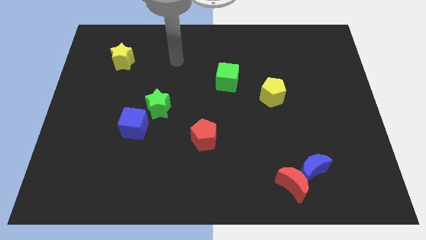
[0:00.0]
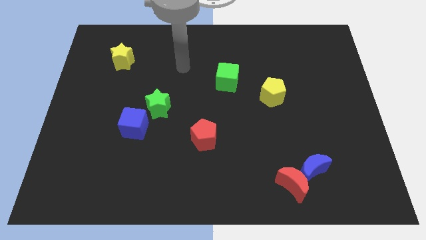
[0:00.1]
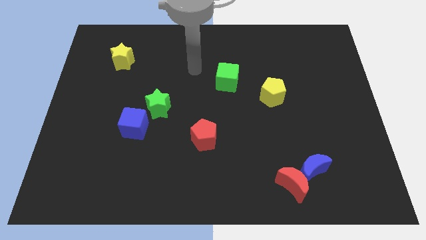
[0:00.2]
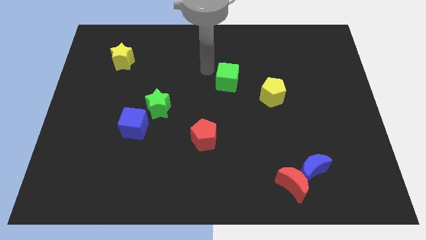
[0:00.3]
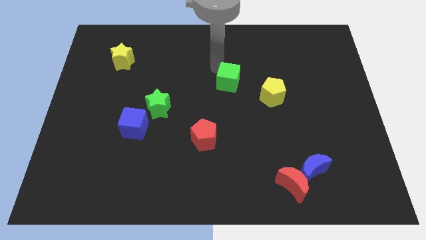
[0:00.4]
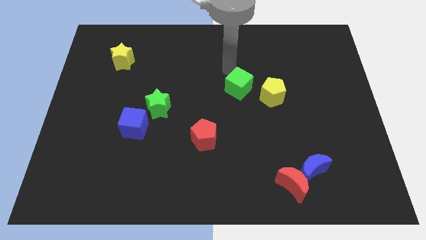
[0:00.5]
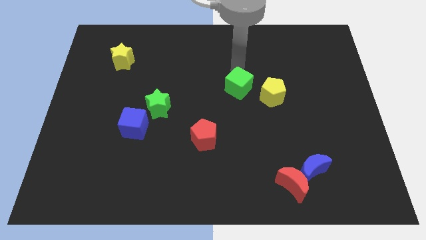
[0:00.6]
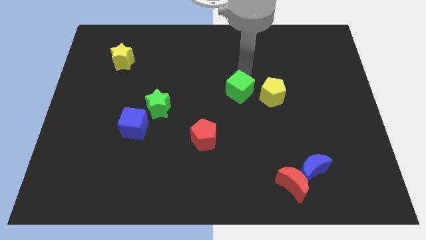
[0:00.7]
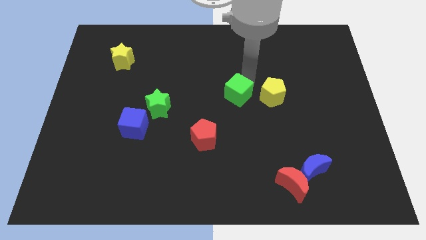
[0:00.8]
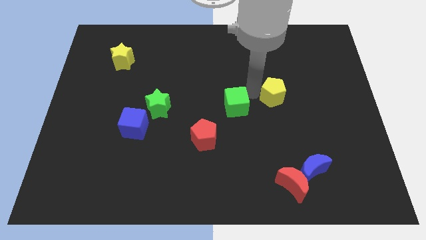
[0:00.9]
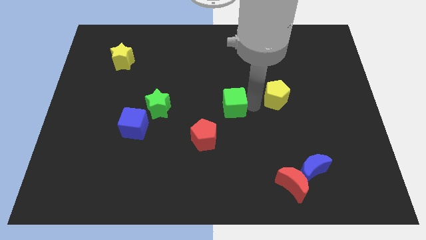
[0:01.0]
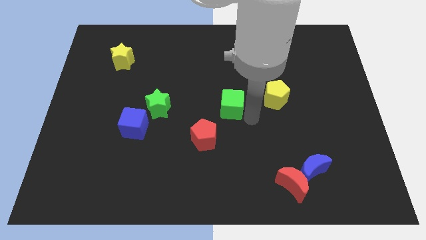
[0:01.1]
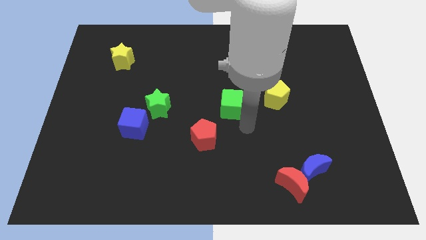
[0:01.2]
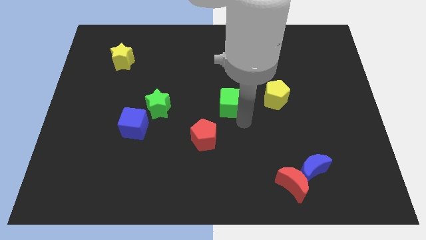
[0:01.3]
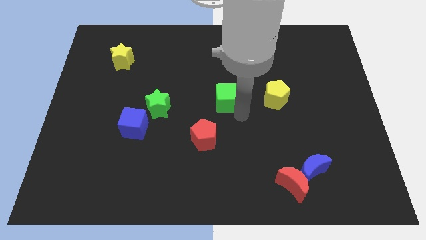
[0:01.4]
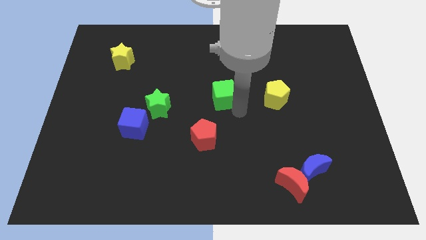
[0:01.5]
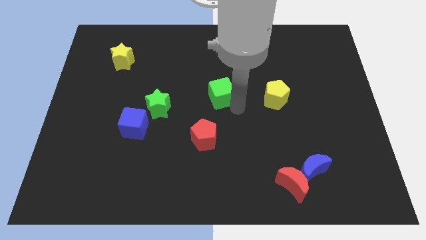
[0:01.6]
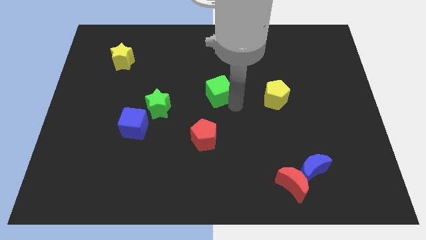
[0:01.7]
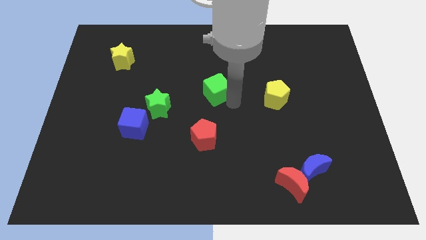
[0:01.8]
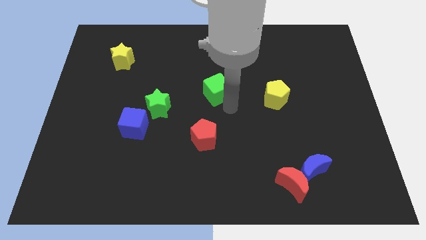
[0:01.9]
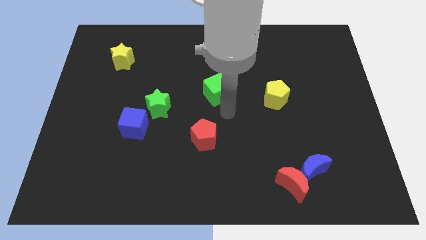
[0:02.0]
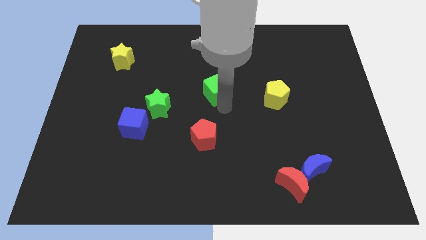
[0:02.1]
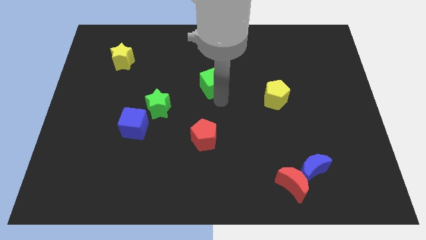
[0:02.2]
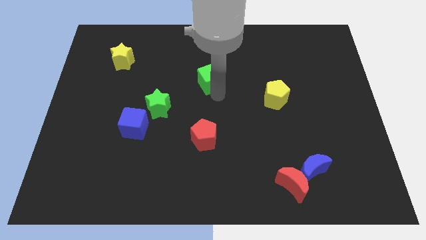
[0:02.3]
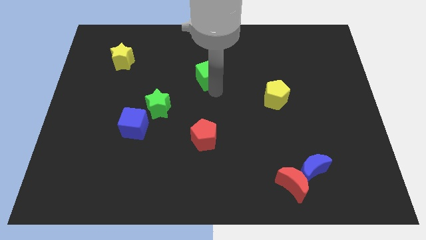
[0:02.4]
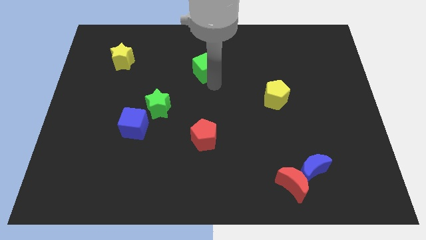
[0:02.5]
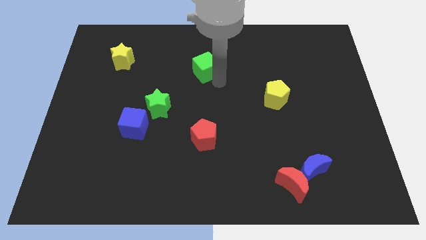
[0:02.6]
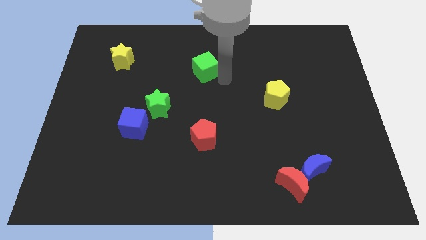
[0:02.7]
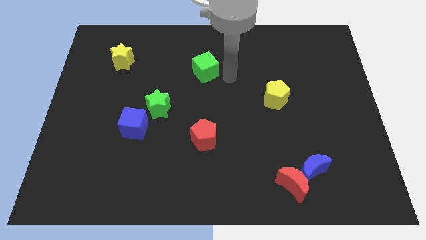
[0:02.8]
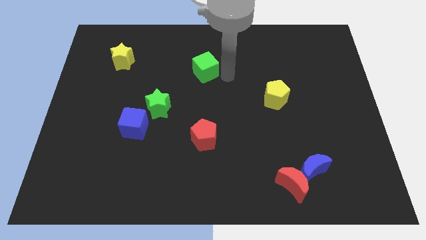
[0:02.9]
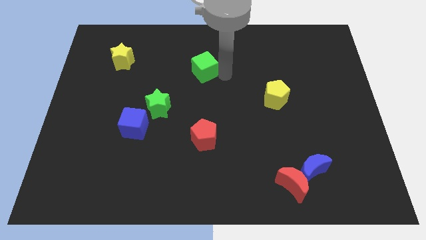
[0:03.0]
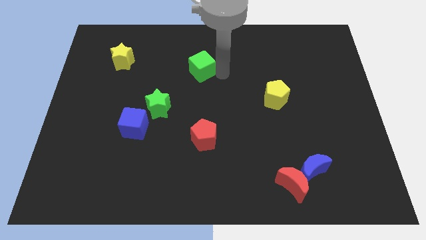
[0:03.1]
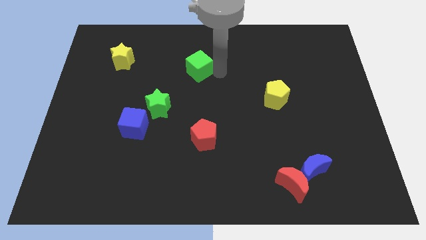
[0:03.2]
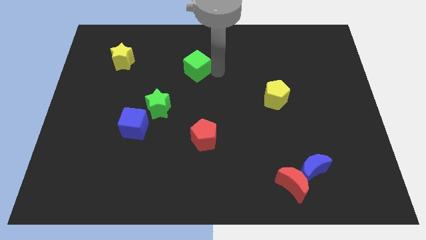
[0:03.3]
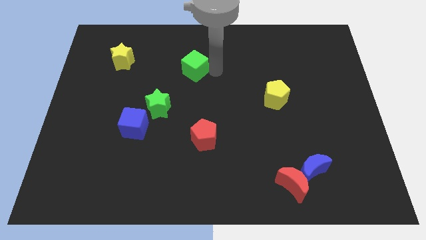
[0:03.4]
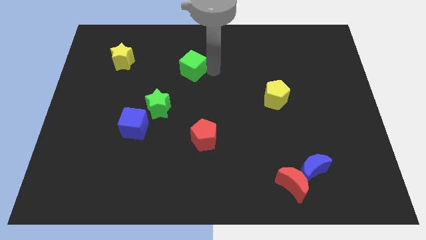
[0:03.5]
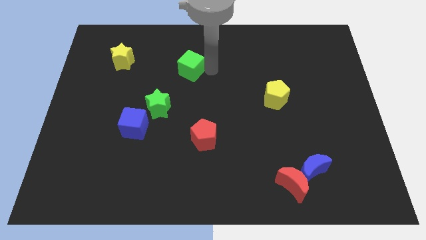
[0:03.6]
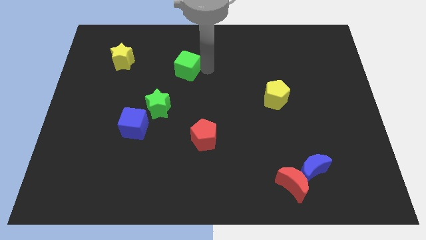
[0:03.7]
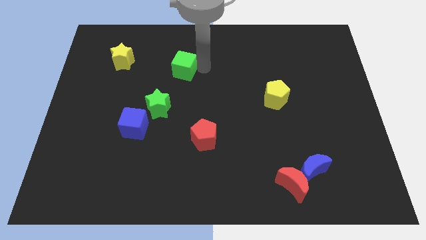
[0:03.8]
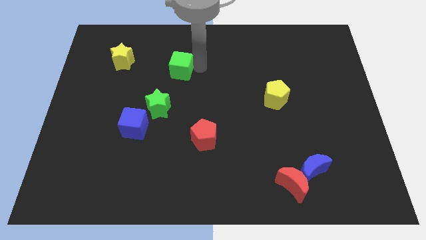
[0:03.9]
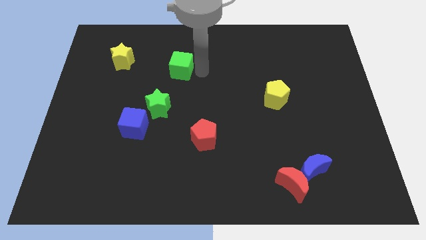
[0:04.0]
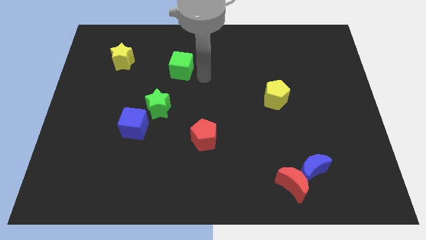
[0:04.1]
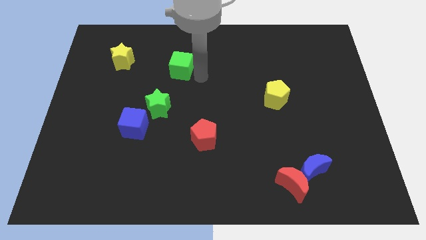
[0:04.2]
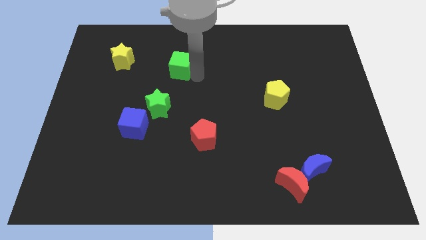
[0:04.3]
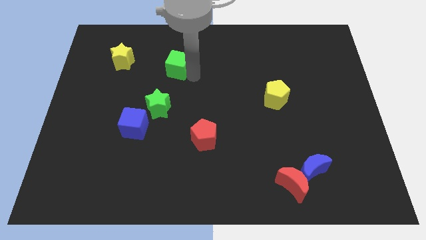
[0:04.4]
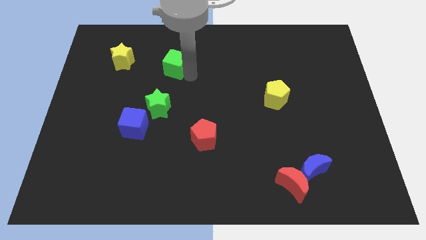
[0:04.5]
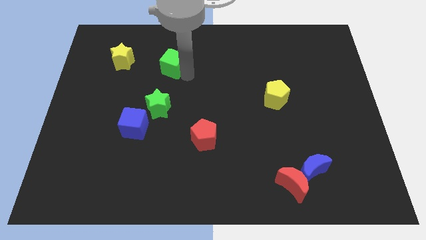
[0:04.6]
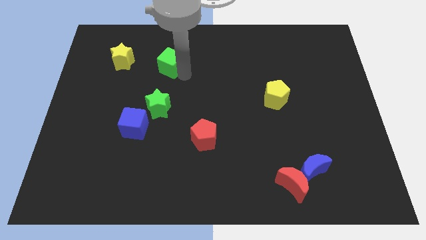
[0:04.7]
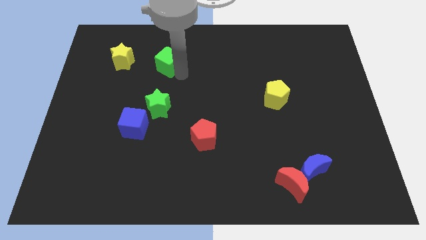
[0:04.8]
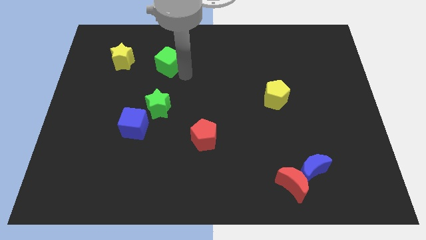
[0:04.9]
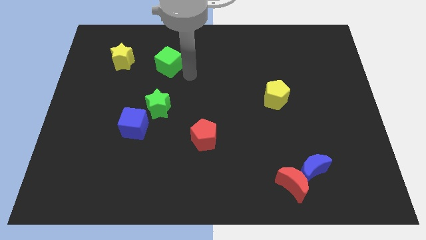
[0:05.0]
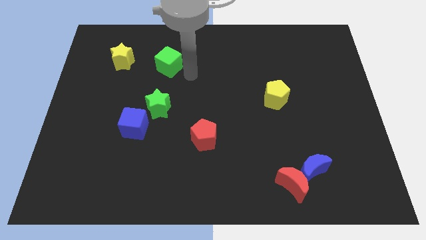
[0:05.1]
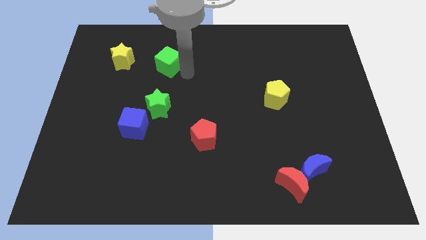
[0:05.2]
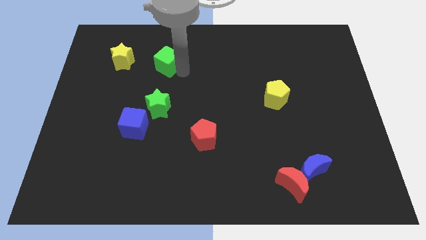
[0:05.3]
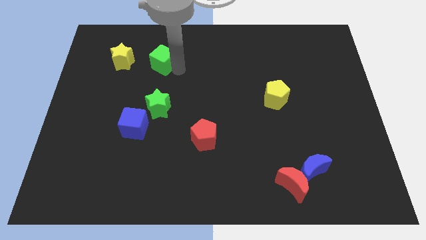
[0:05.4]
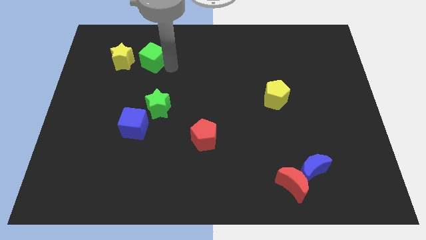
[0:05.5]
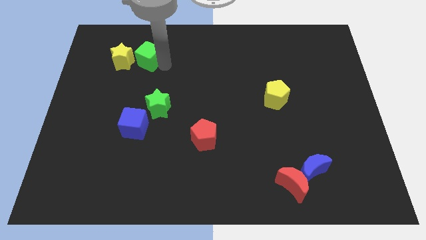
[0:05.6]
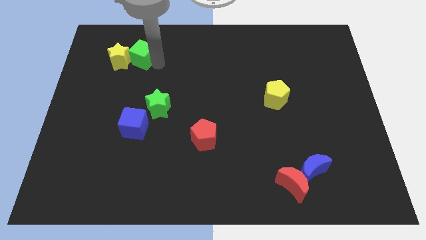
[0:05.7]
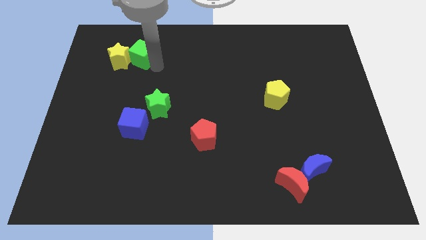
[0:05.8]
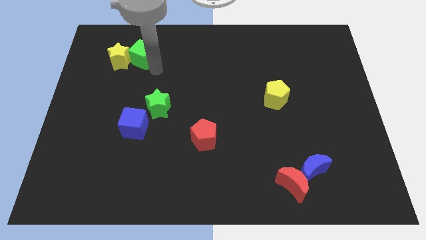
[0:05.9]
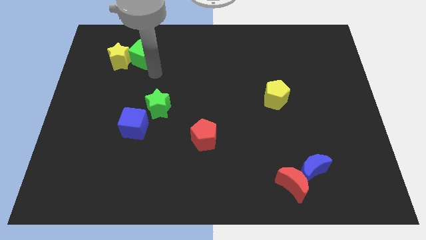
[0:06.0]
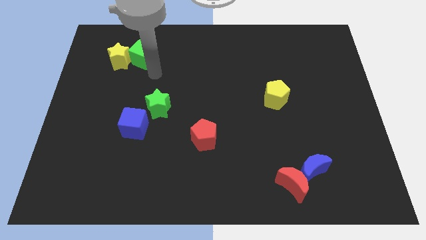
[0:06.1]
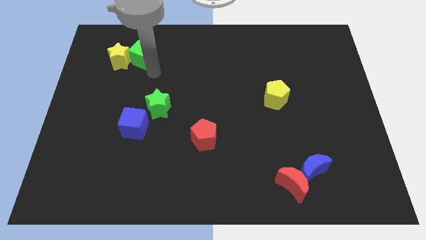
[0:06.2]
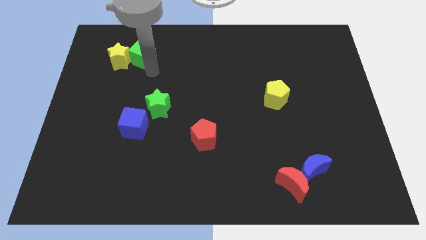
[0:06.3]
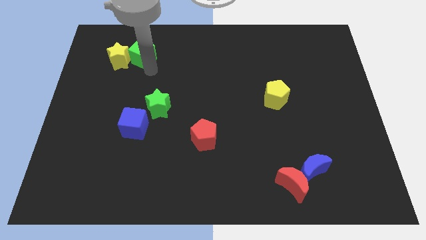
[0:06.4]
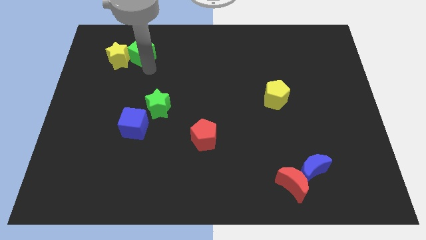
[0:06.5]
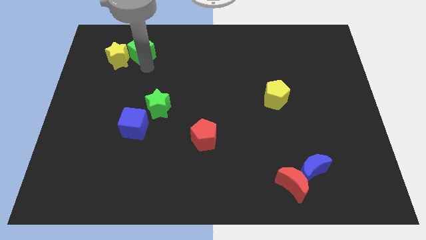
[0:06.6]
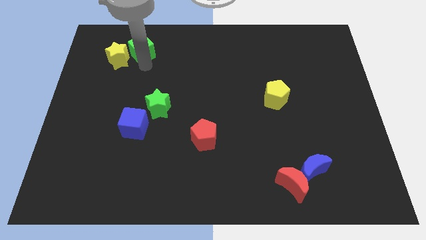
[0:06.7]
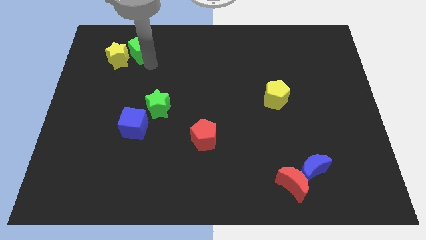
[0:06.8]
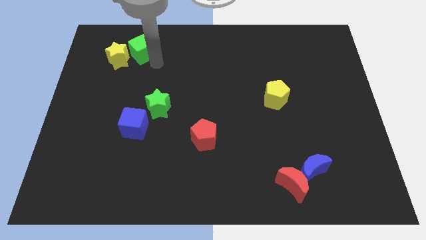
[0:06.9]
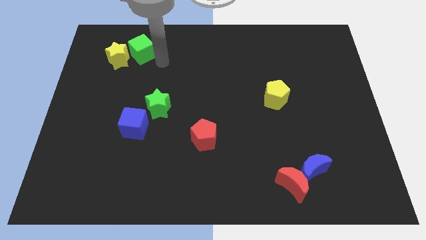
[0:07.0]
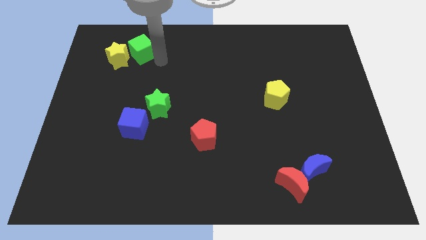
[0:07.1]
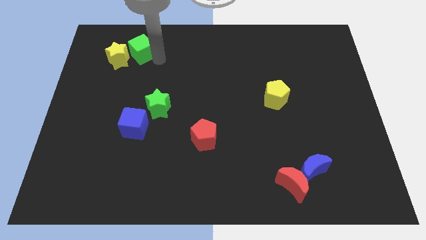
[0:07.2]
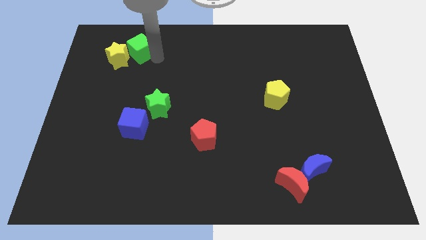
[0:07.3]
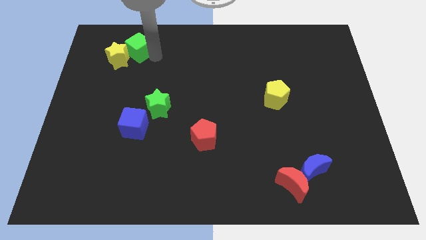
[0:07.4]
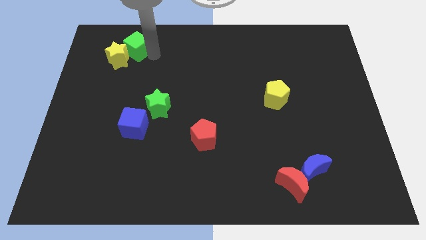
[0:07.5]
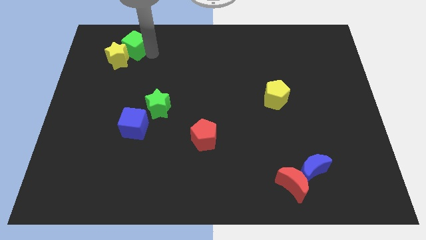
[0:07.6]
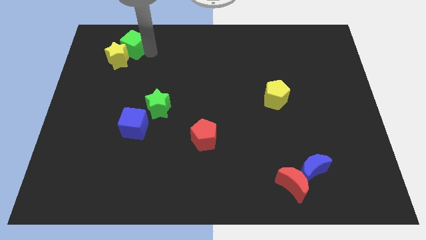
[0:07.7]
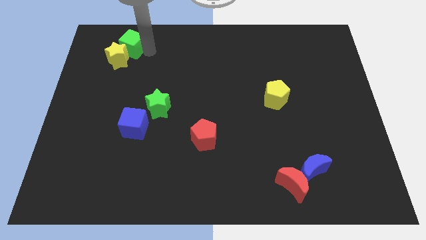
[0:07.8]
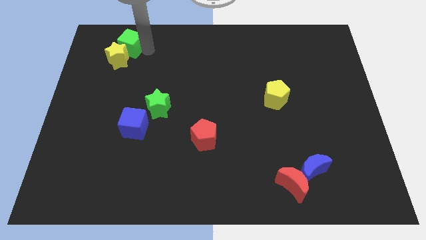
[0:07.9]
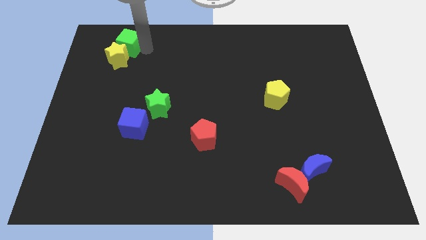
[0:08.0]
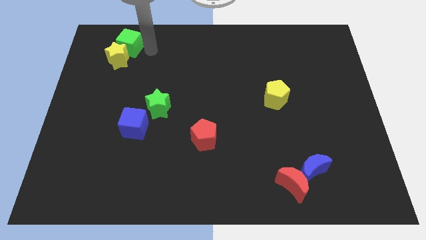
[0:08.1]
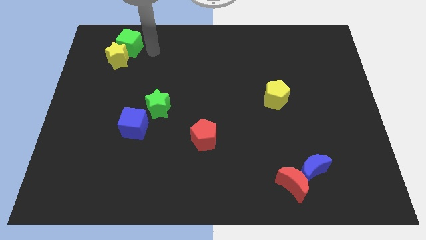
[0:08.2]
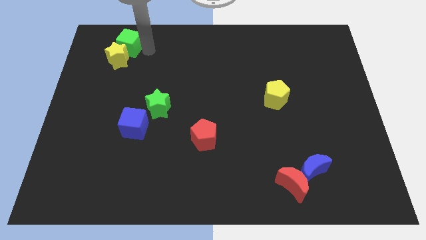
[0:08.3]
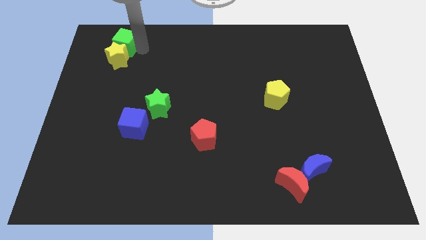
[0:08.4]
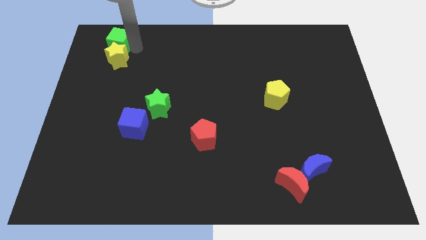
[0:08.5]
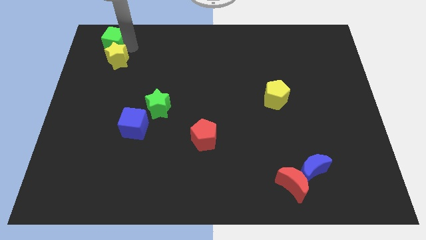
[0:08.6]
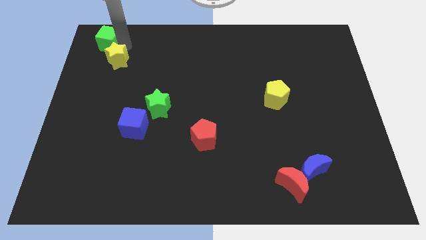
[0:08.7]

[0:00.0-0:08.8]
push the green cube to the top left
